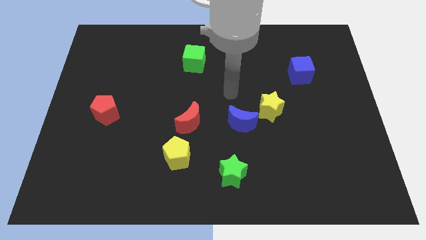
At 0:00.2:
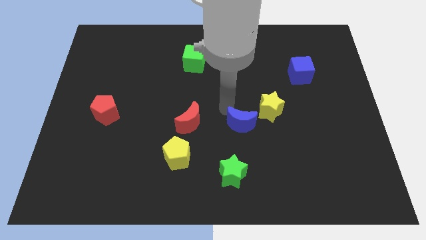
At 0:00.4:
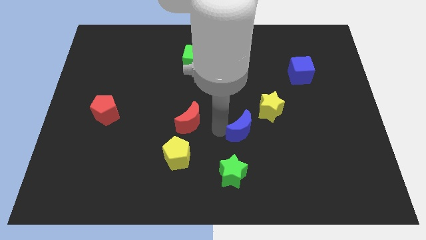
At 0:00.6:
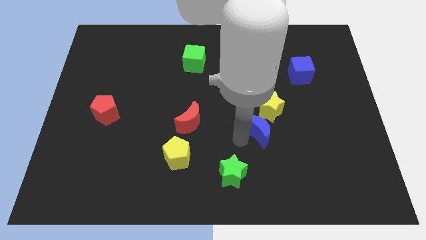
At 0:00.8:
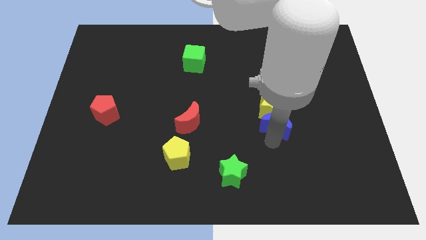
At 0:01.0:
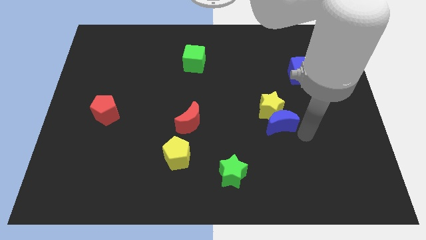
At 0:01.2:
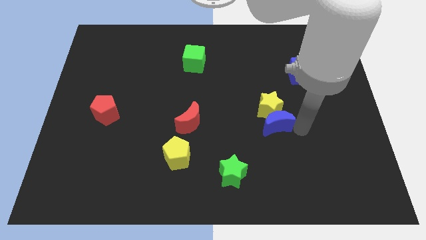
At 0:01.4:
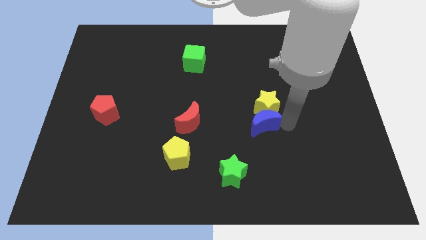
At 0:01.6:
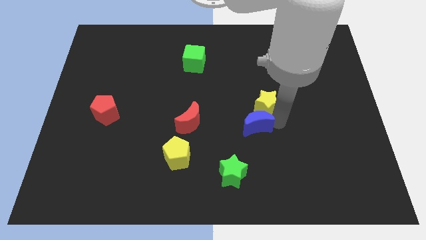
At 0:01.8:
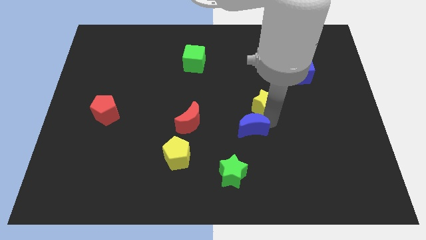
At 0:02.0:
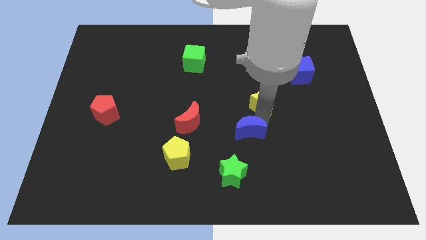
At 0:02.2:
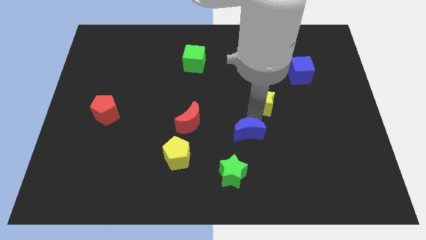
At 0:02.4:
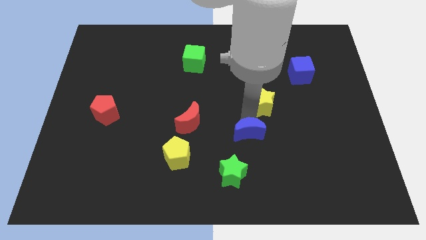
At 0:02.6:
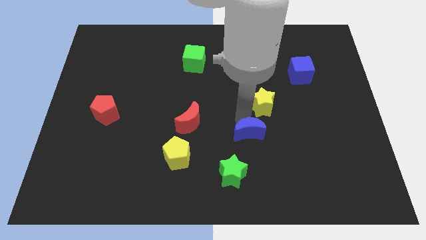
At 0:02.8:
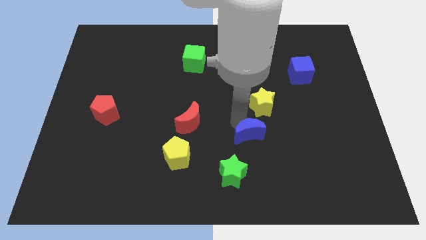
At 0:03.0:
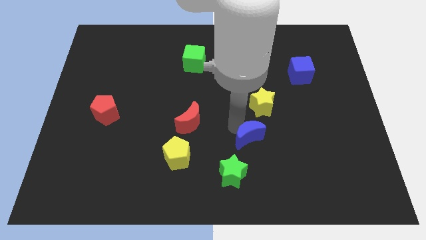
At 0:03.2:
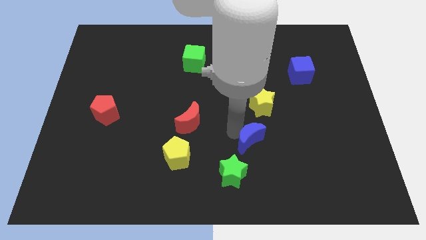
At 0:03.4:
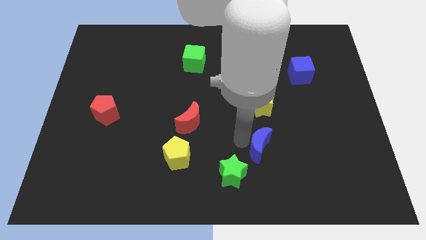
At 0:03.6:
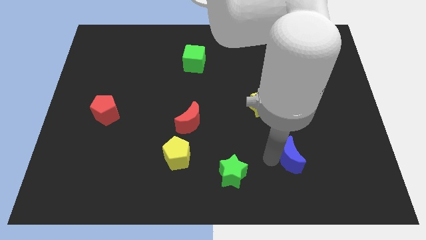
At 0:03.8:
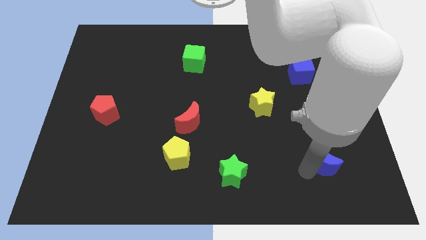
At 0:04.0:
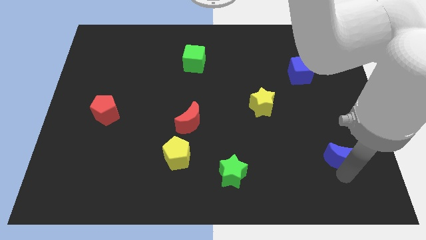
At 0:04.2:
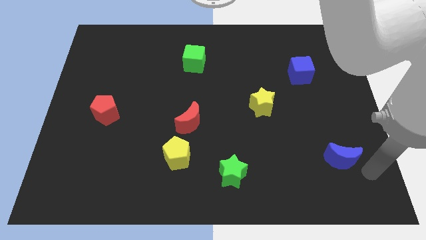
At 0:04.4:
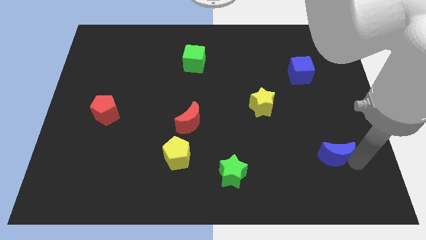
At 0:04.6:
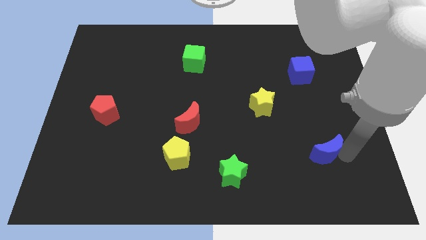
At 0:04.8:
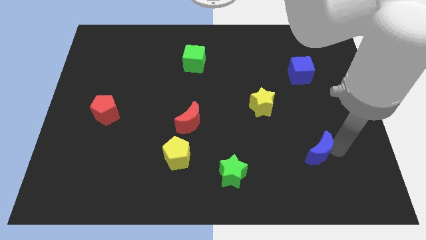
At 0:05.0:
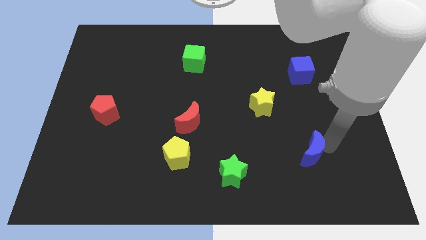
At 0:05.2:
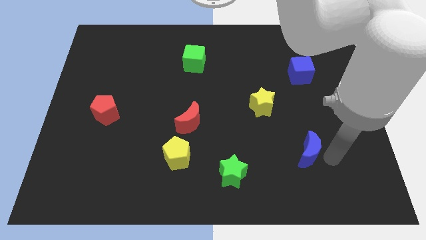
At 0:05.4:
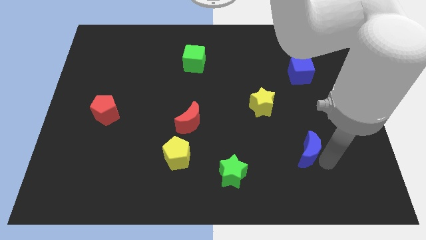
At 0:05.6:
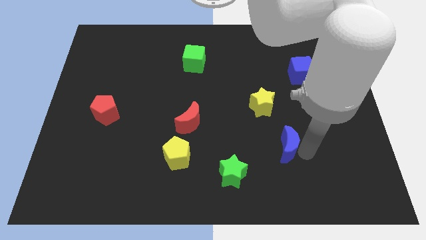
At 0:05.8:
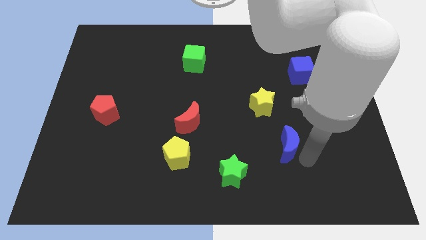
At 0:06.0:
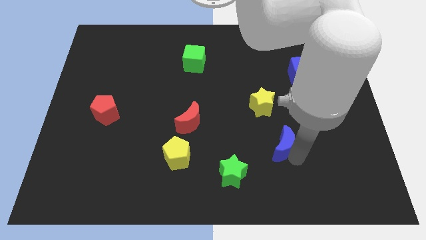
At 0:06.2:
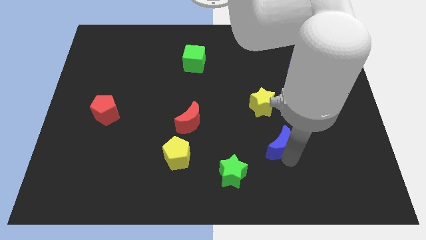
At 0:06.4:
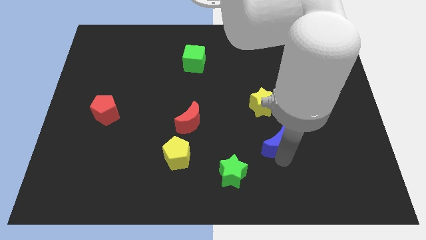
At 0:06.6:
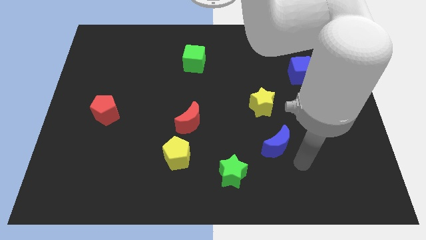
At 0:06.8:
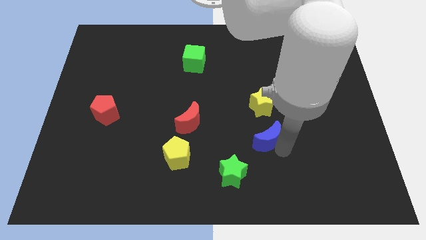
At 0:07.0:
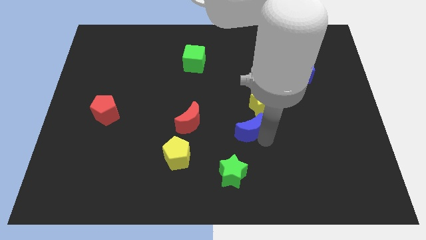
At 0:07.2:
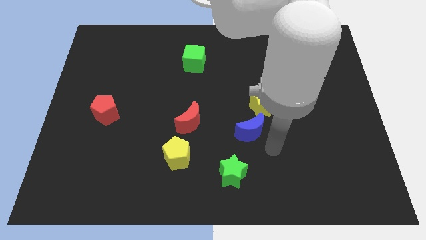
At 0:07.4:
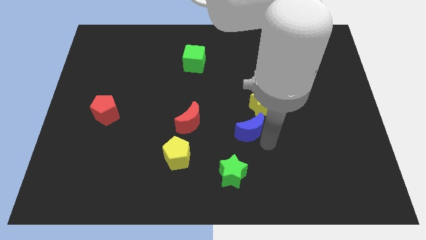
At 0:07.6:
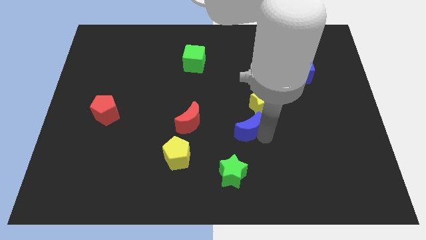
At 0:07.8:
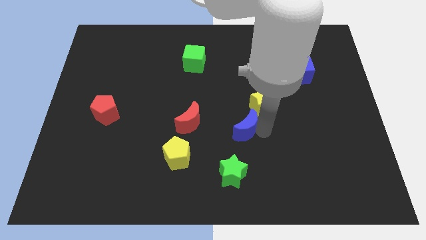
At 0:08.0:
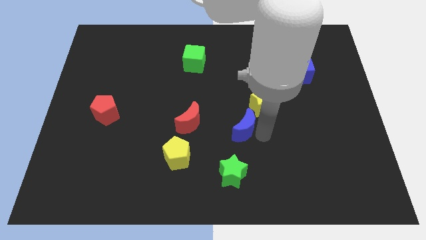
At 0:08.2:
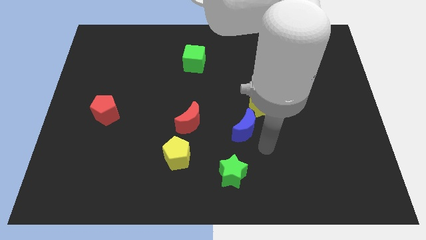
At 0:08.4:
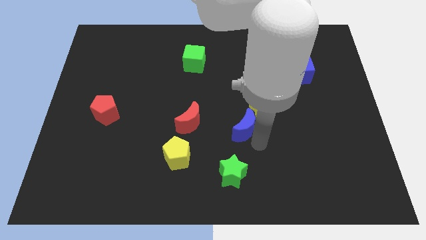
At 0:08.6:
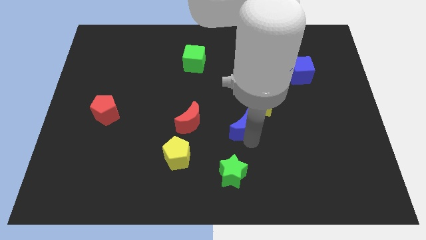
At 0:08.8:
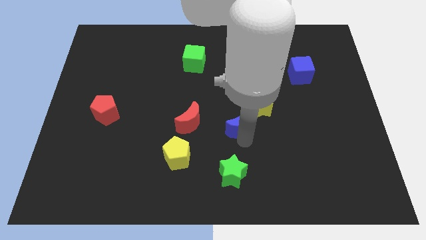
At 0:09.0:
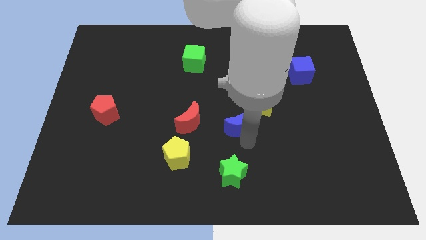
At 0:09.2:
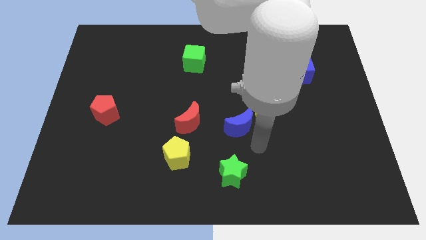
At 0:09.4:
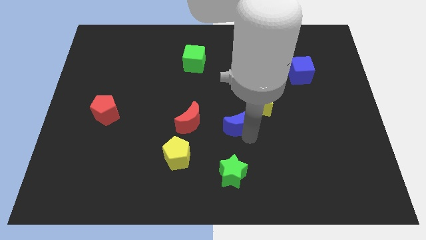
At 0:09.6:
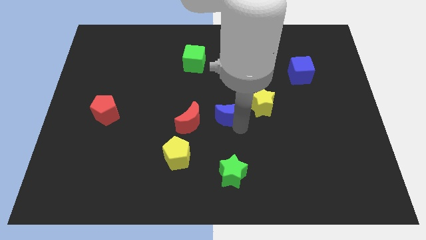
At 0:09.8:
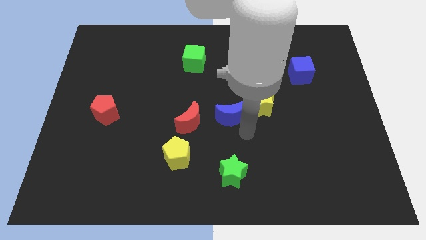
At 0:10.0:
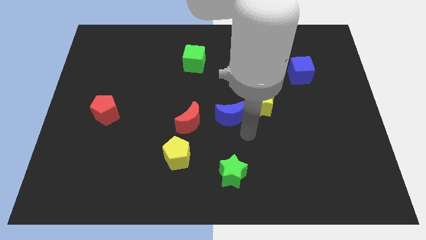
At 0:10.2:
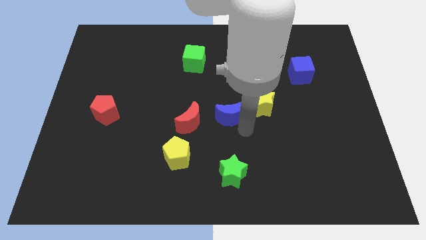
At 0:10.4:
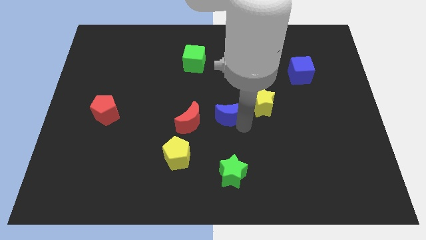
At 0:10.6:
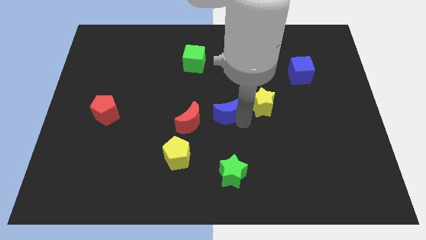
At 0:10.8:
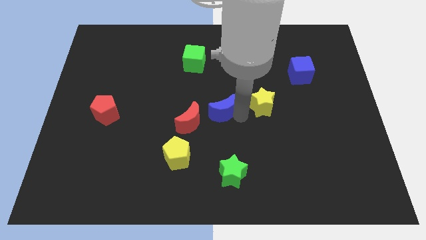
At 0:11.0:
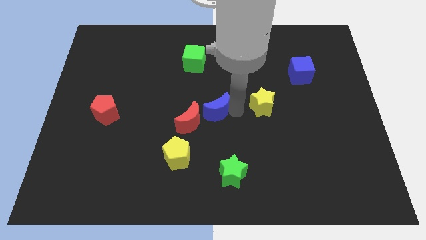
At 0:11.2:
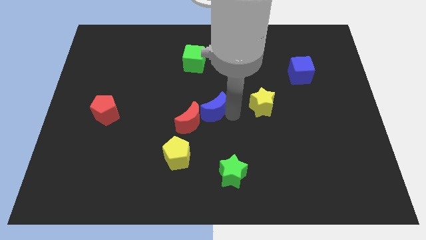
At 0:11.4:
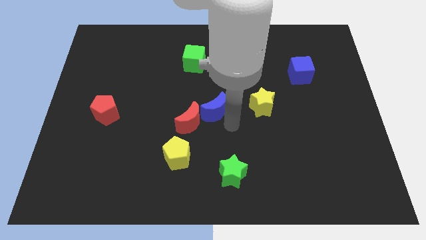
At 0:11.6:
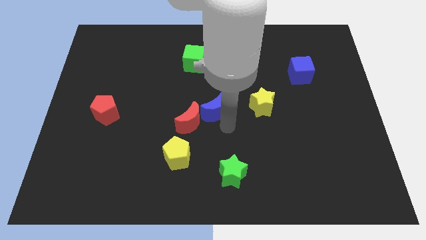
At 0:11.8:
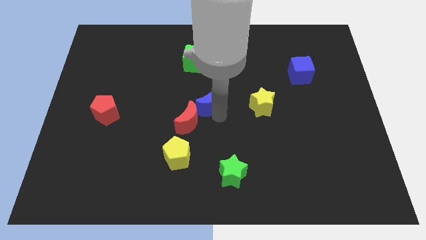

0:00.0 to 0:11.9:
move the blue moon a little upwards and left

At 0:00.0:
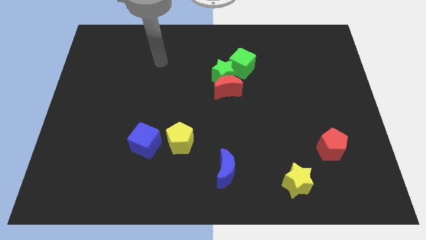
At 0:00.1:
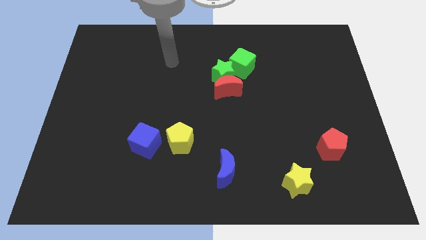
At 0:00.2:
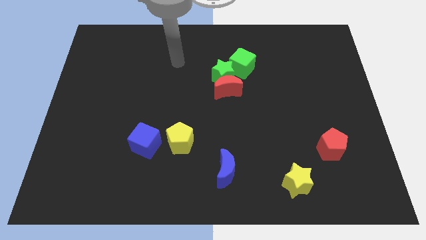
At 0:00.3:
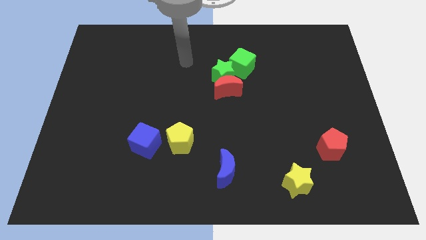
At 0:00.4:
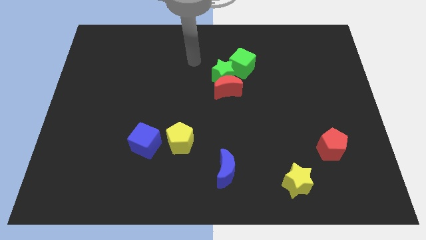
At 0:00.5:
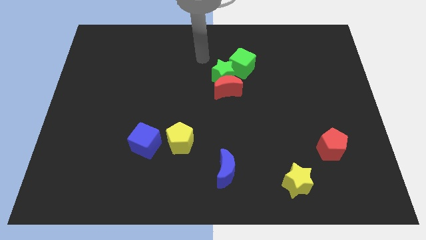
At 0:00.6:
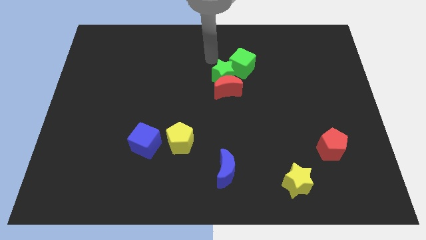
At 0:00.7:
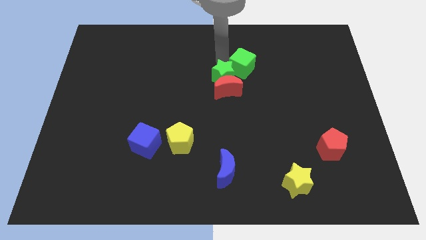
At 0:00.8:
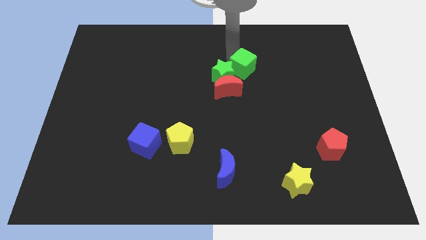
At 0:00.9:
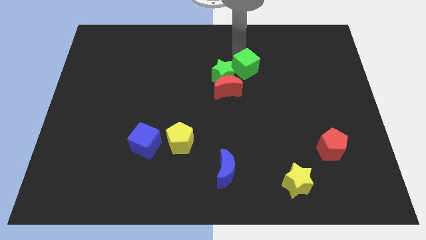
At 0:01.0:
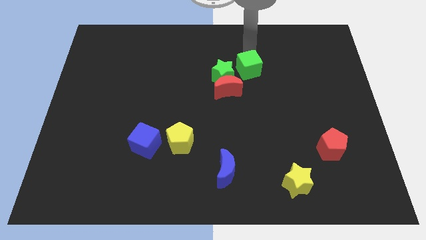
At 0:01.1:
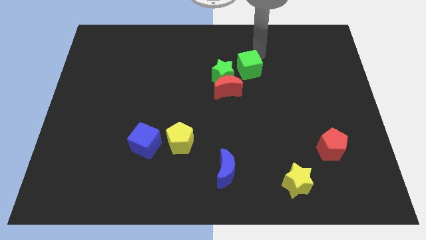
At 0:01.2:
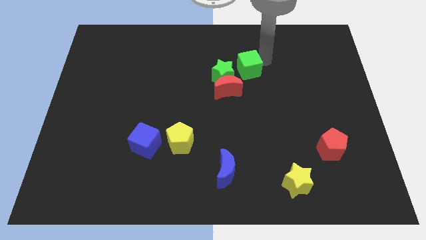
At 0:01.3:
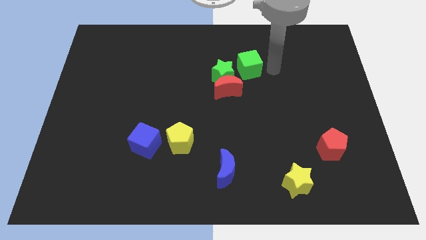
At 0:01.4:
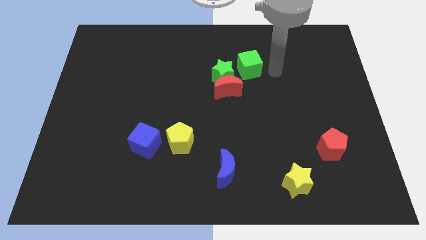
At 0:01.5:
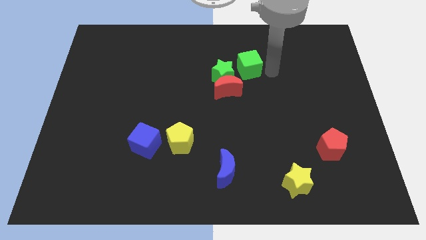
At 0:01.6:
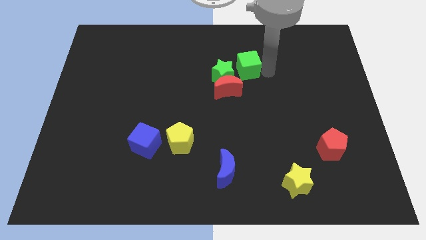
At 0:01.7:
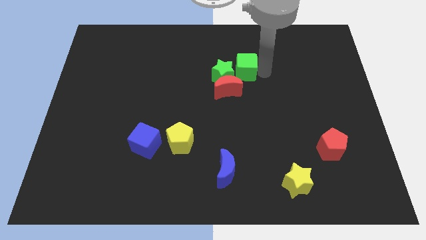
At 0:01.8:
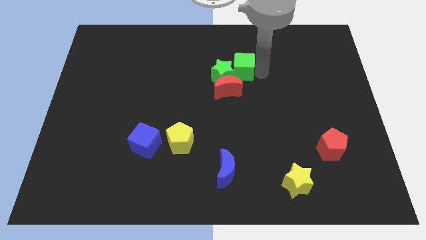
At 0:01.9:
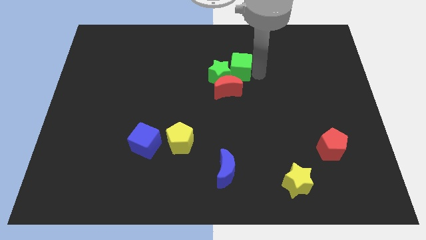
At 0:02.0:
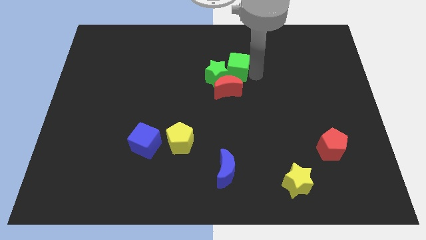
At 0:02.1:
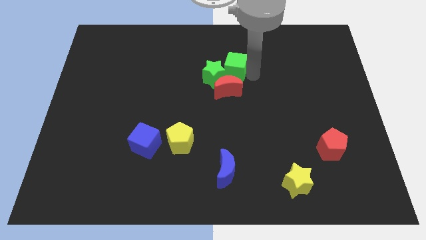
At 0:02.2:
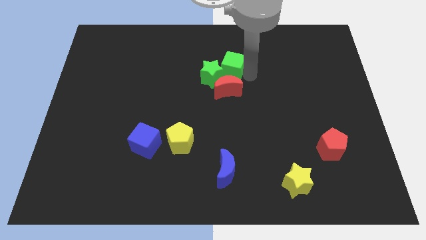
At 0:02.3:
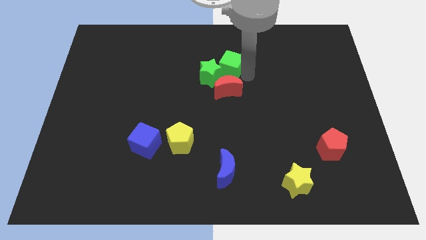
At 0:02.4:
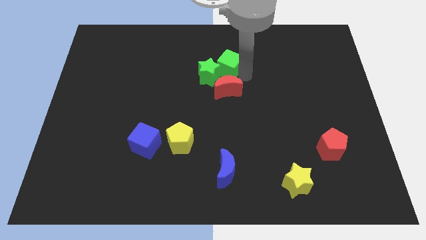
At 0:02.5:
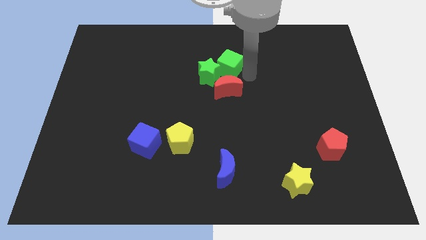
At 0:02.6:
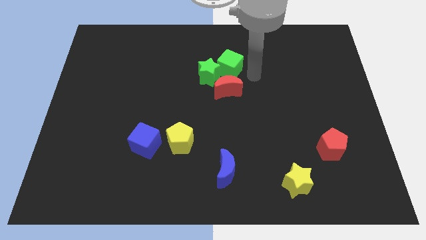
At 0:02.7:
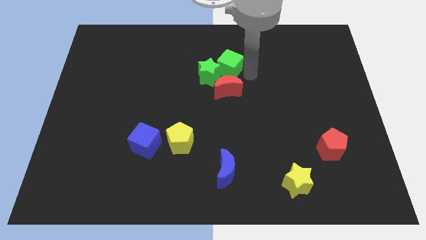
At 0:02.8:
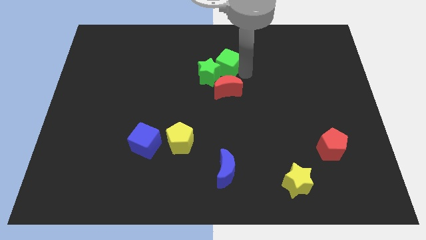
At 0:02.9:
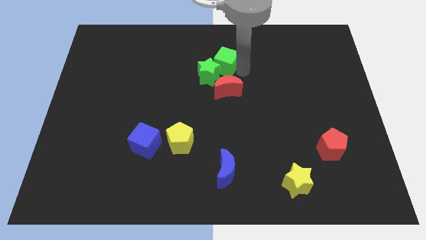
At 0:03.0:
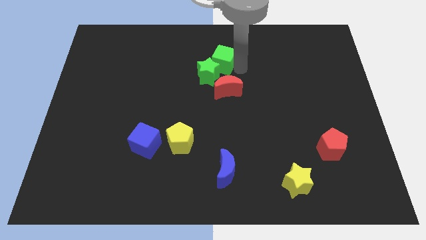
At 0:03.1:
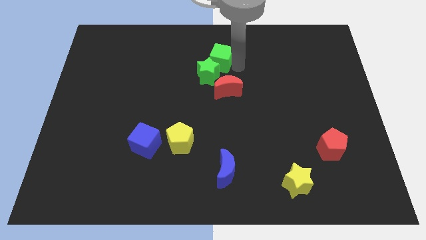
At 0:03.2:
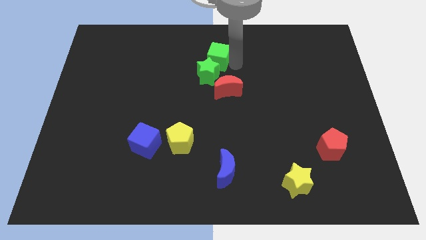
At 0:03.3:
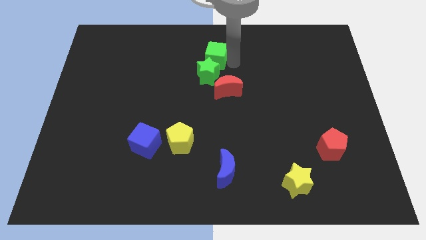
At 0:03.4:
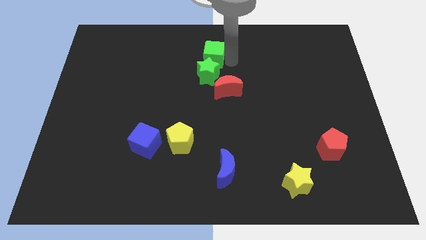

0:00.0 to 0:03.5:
push the green cube a little bit to the left
